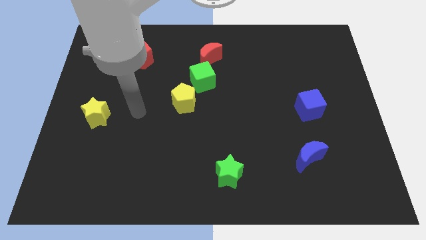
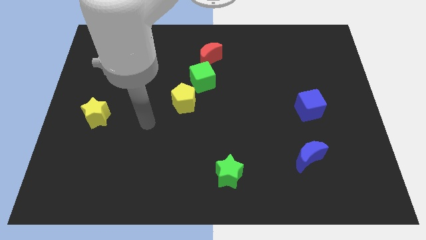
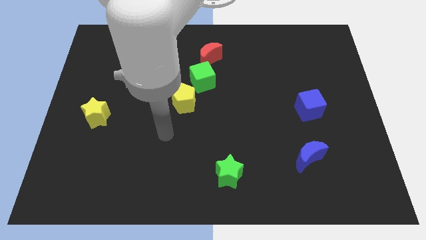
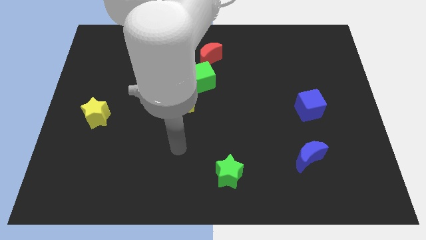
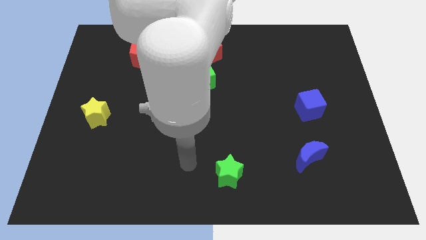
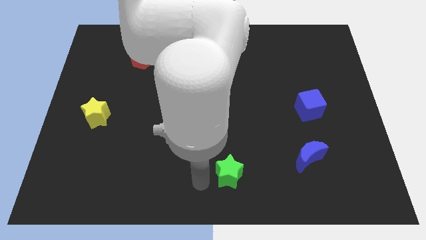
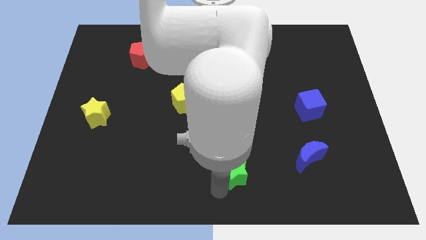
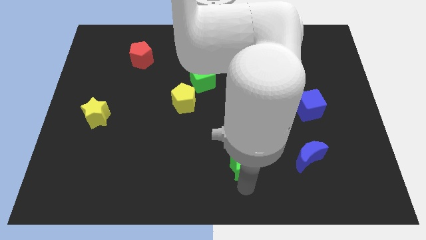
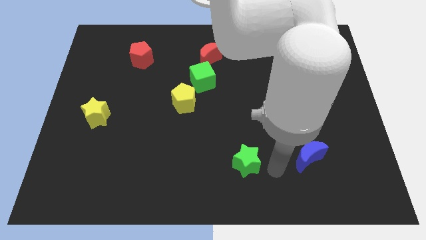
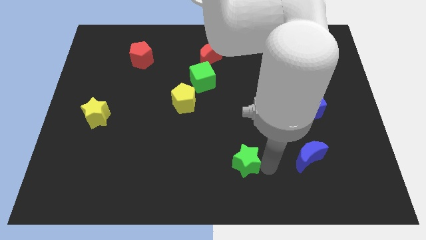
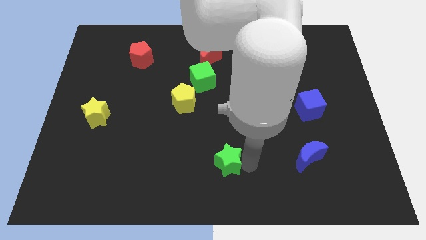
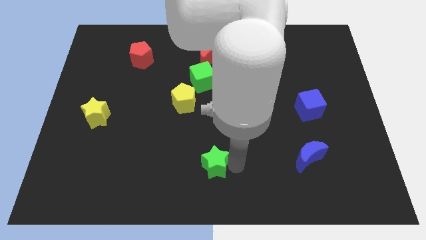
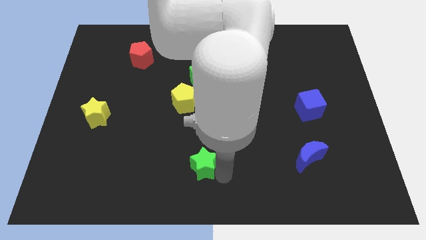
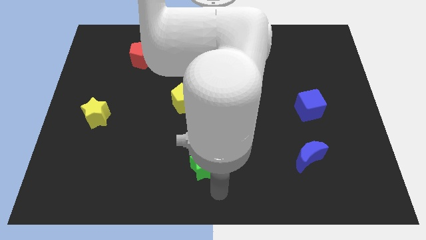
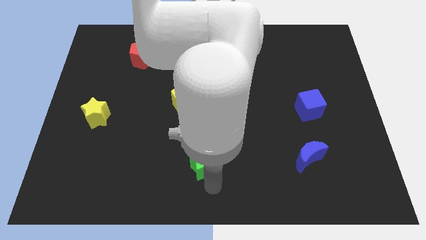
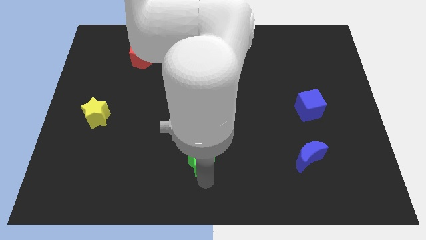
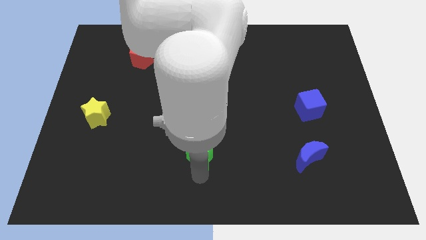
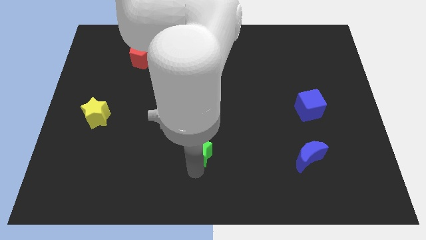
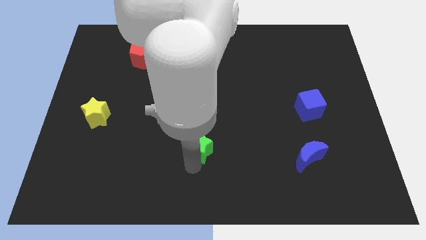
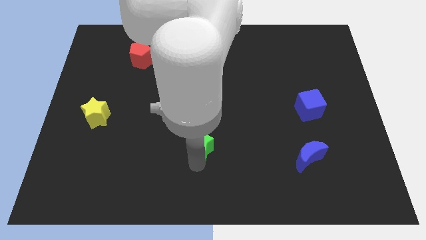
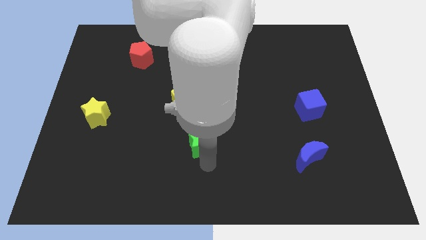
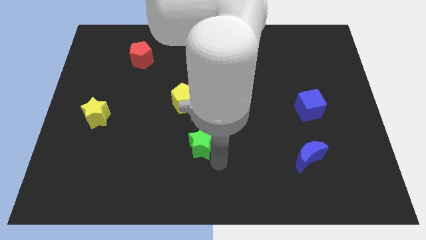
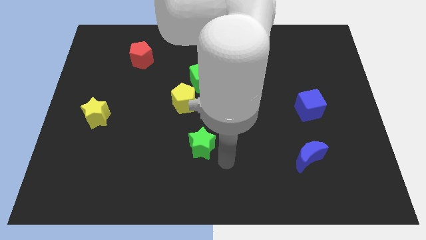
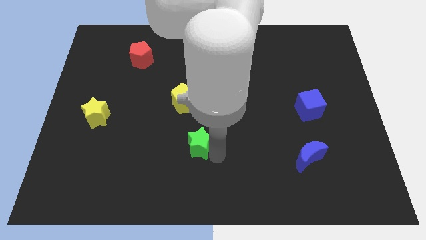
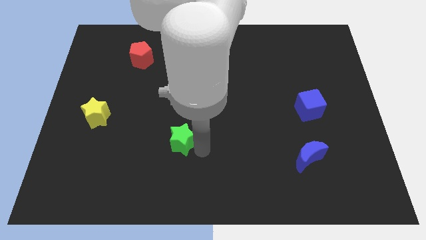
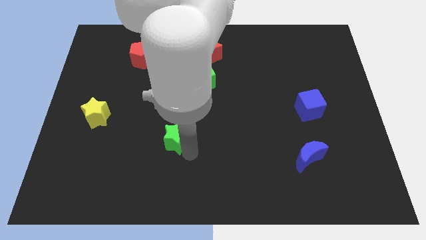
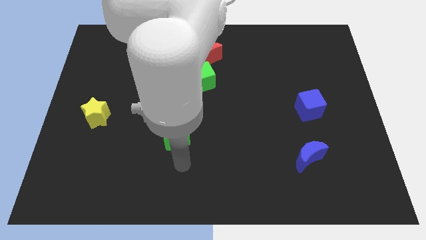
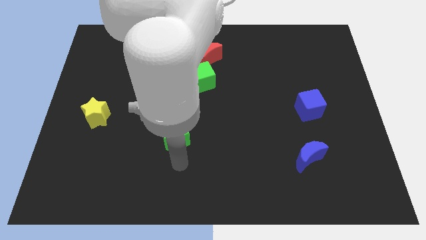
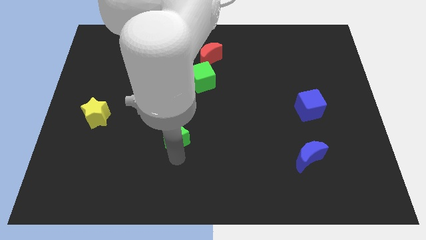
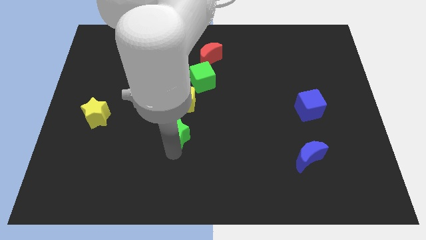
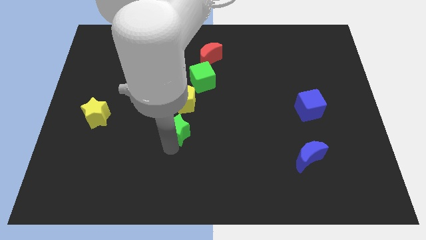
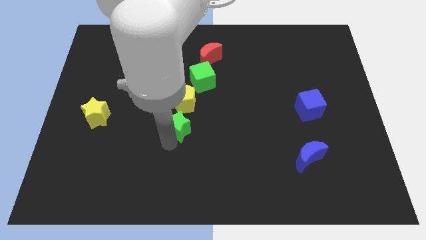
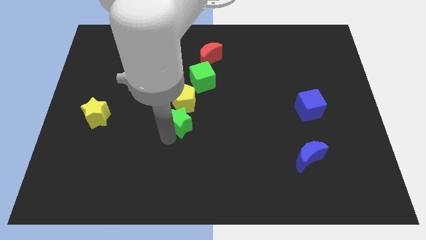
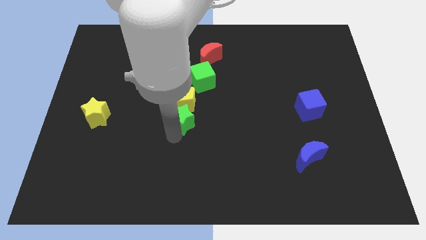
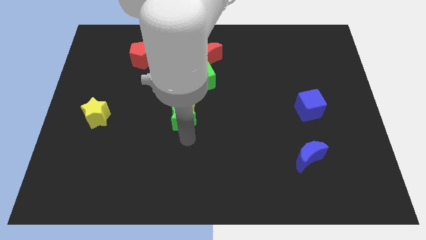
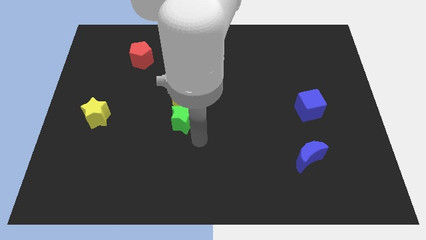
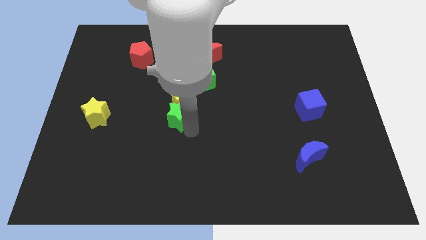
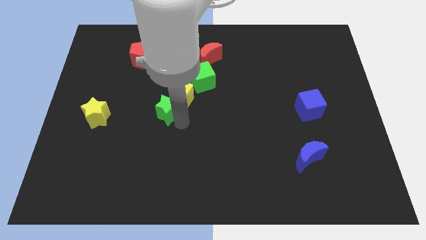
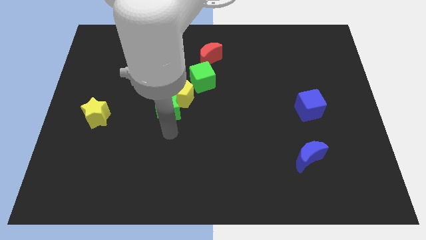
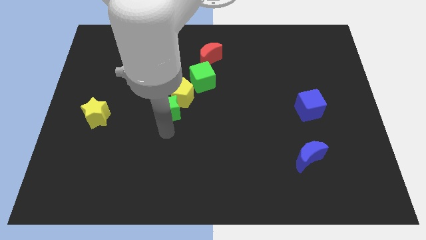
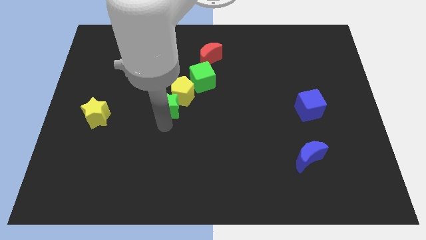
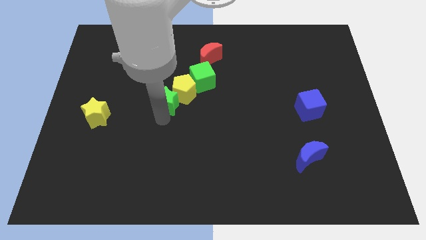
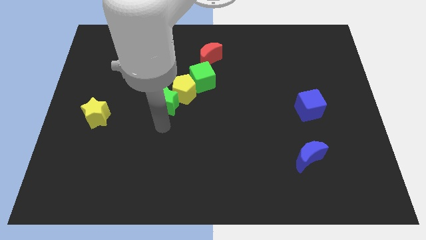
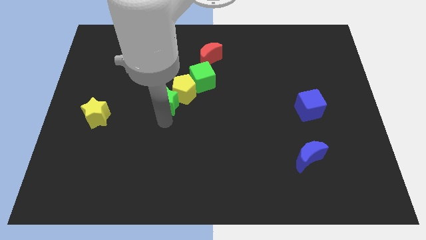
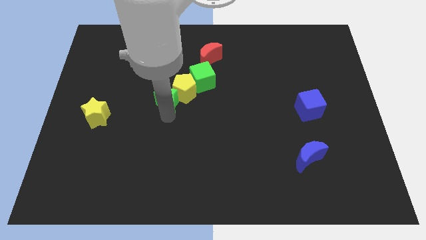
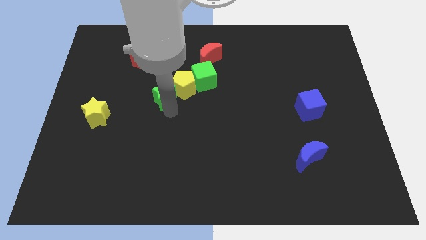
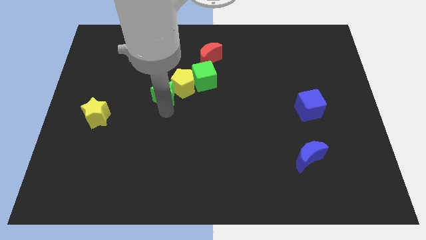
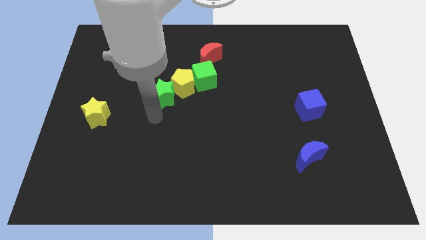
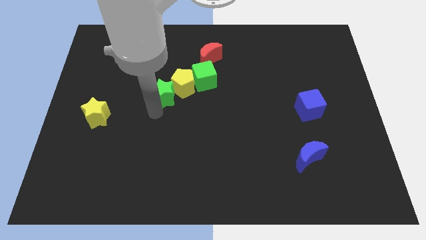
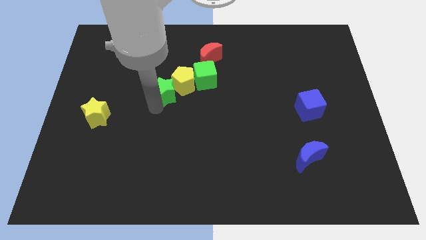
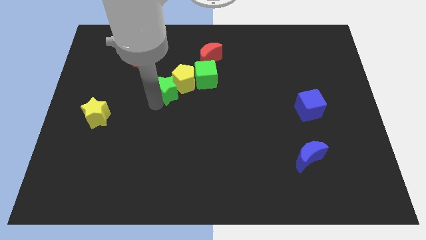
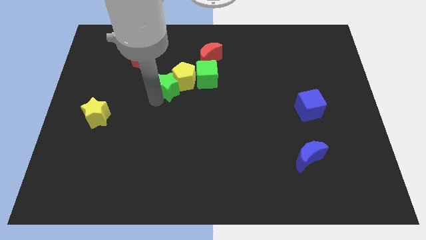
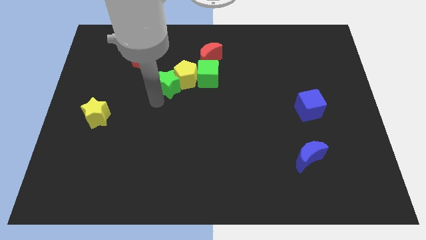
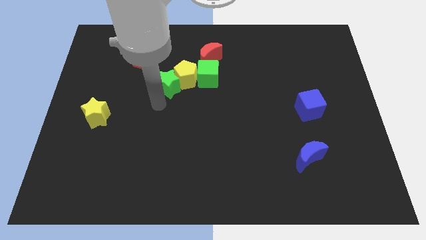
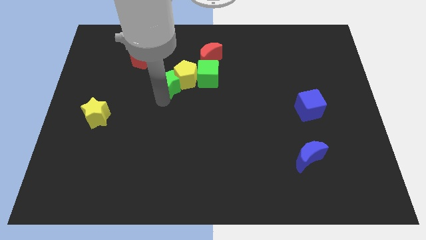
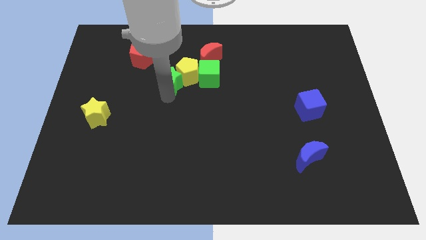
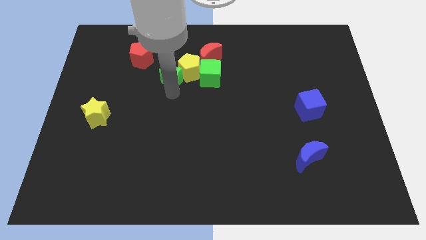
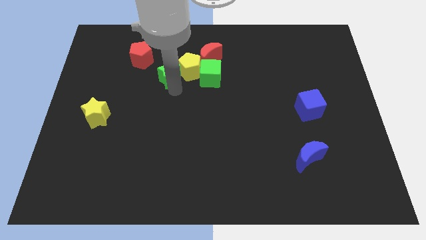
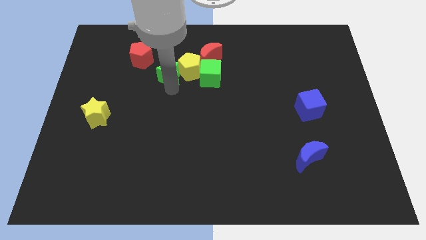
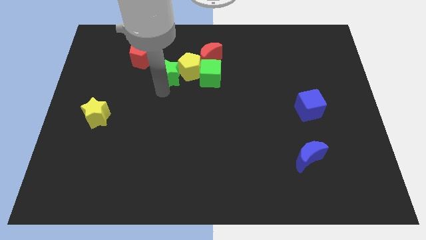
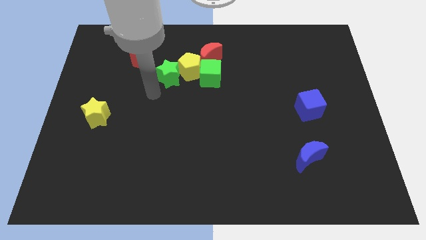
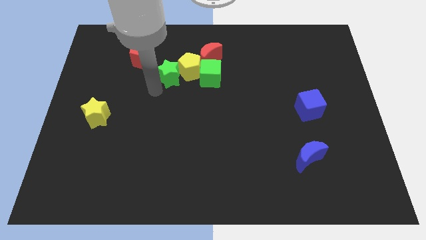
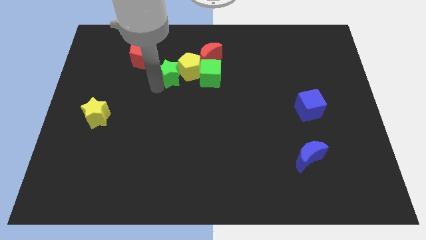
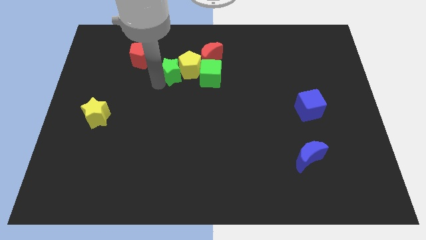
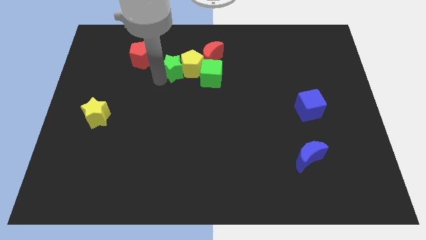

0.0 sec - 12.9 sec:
move the green star just right of the red pentagon
